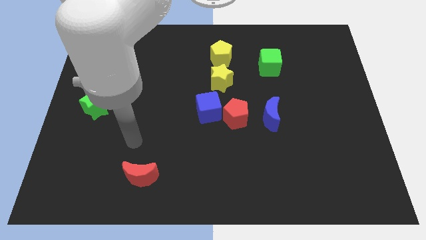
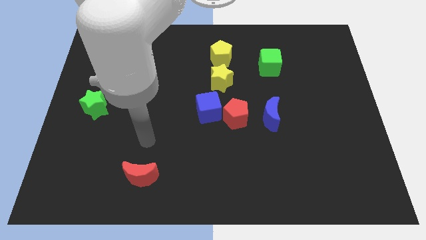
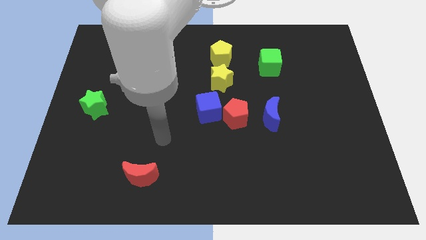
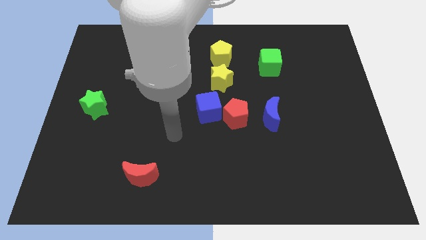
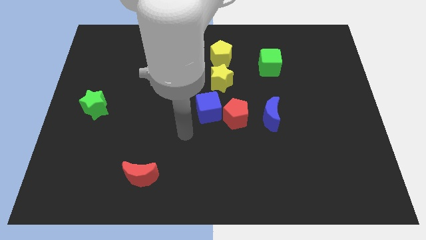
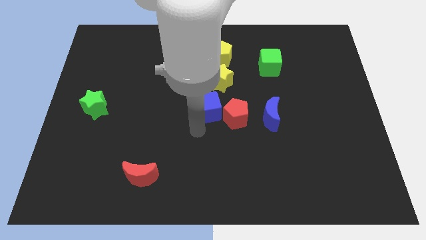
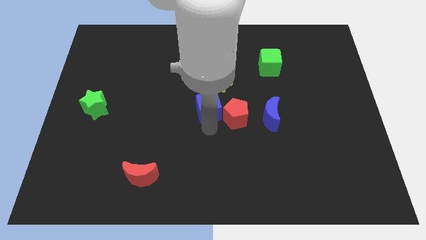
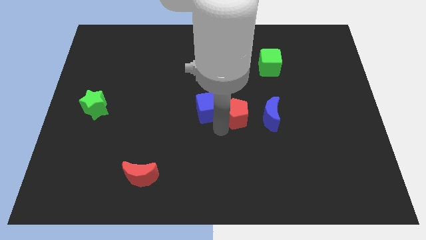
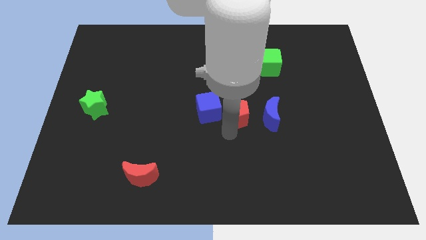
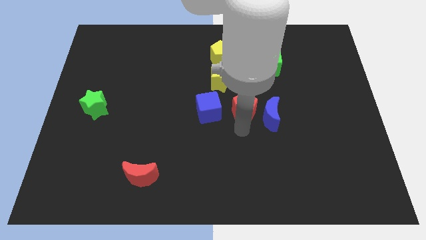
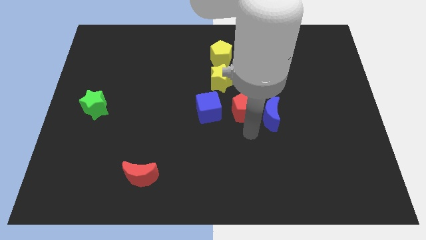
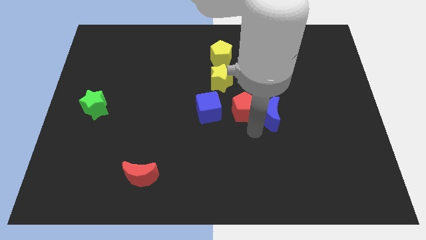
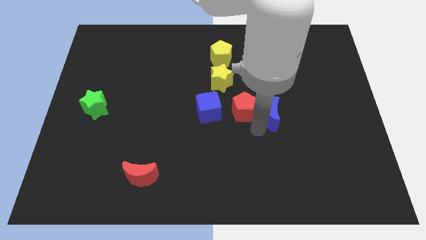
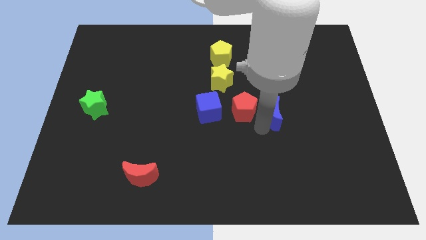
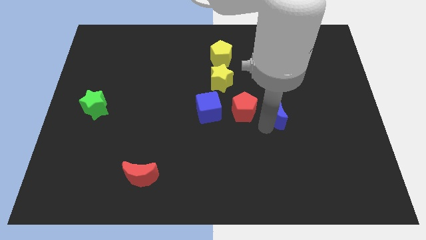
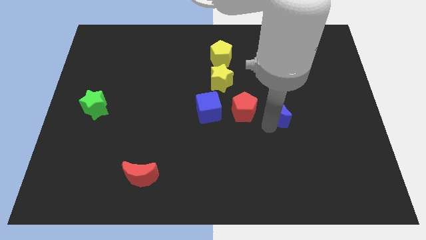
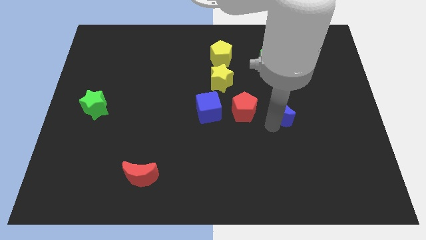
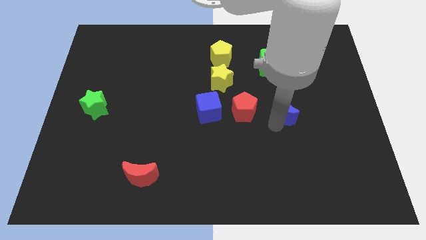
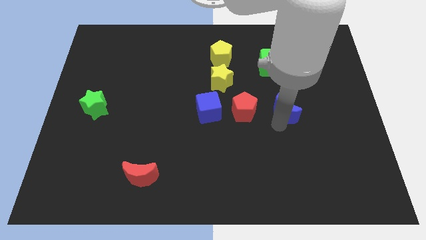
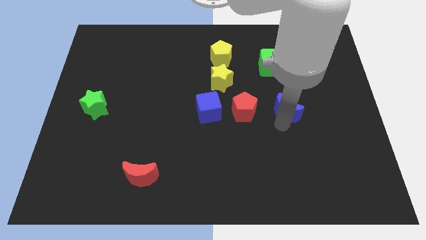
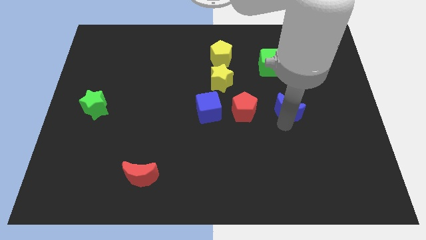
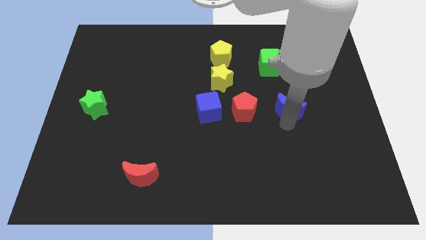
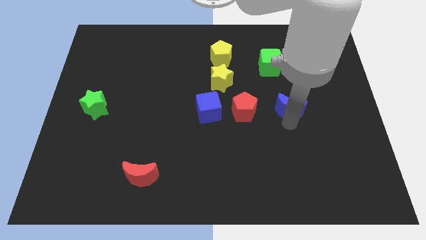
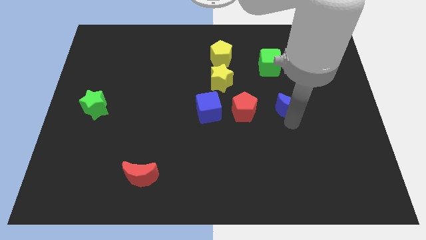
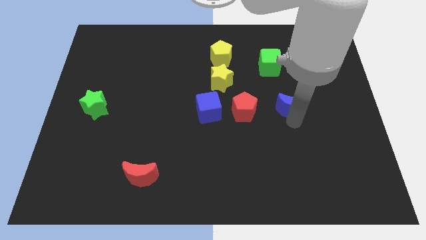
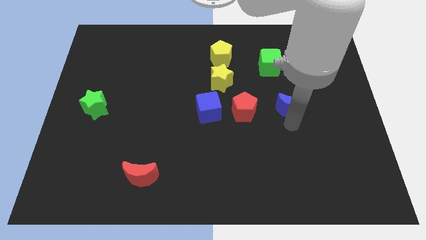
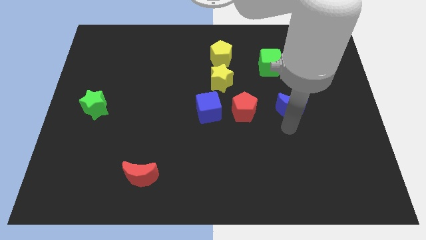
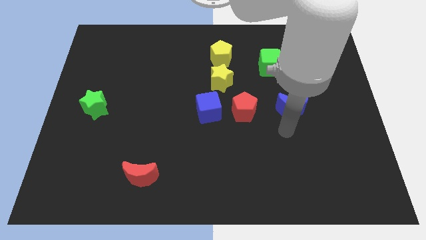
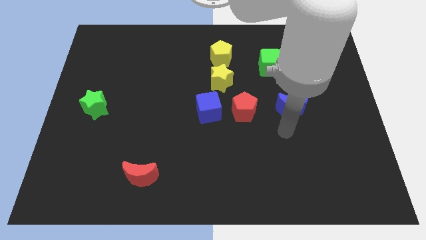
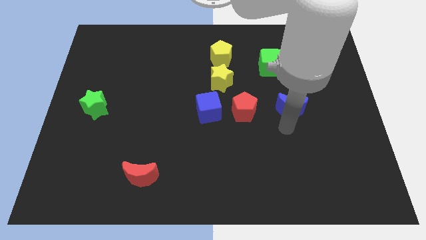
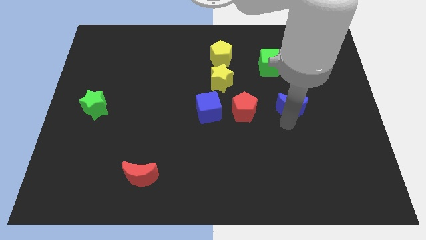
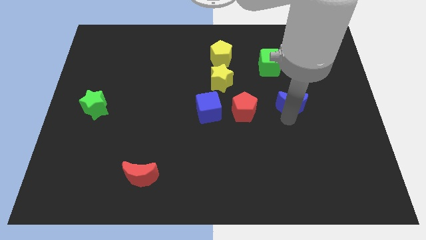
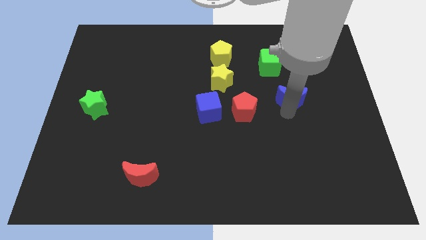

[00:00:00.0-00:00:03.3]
push the blue moon upwards and right diagonally slightly

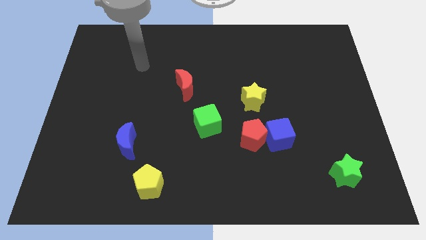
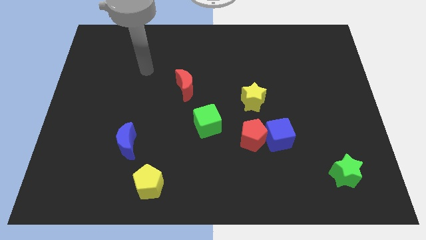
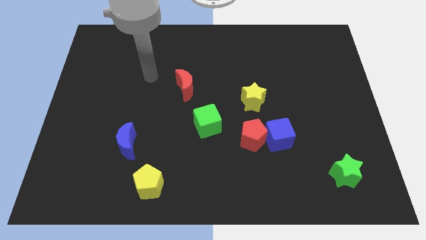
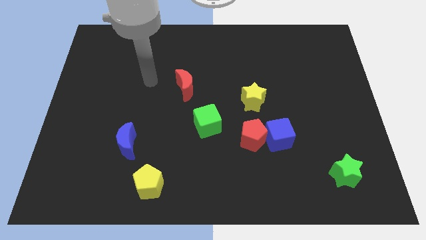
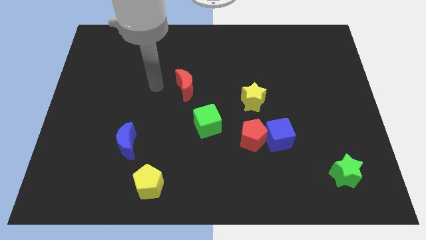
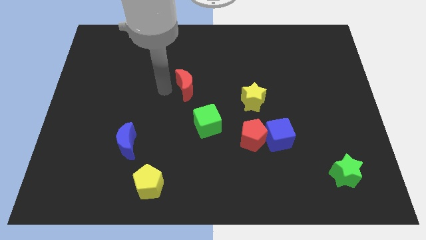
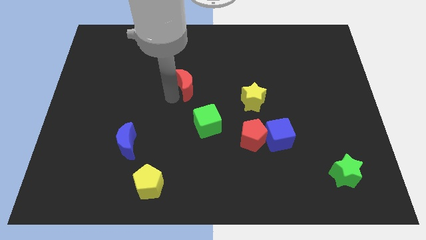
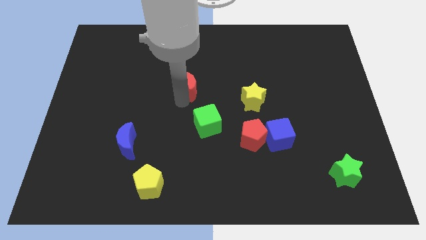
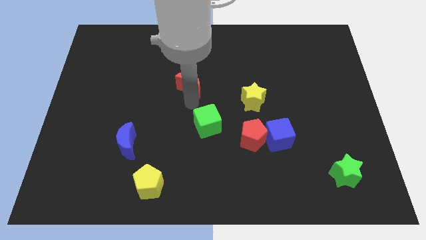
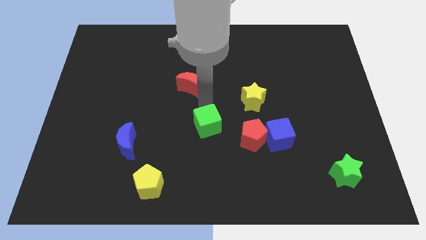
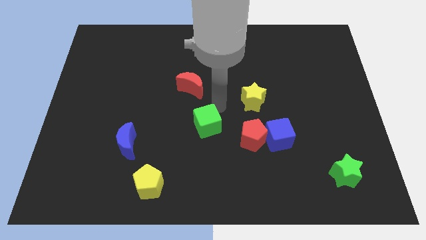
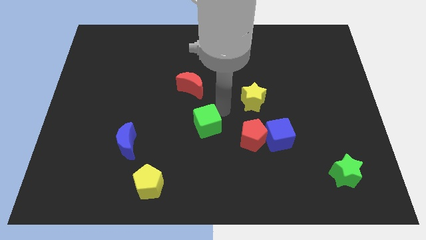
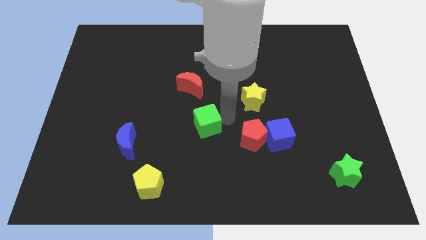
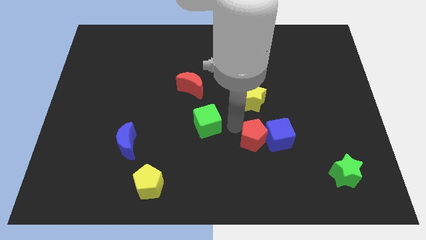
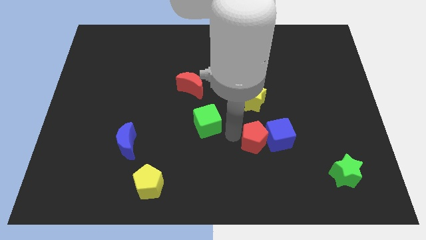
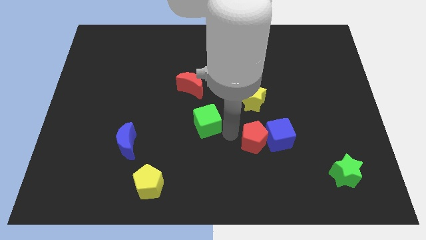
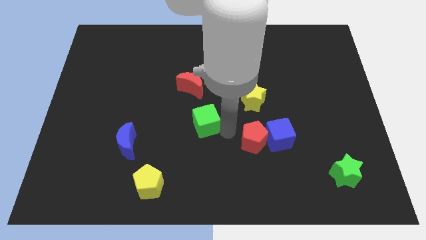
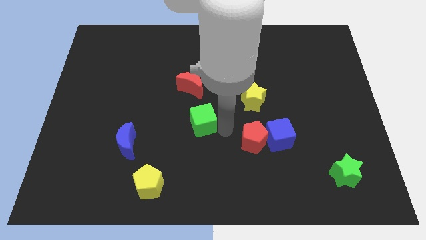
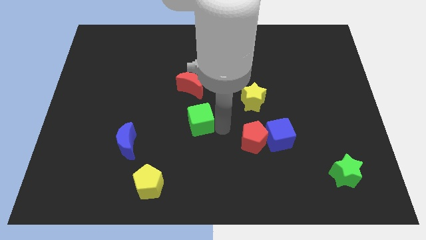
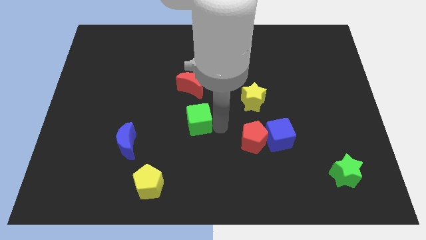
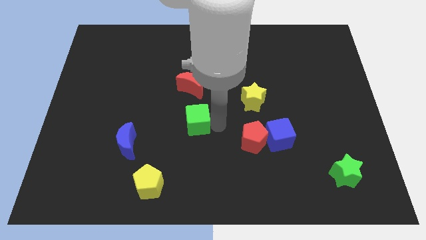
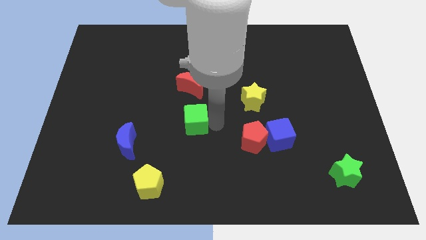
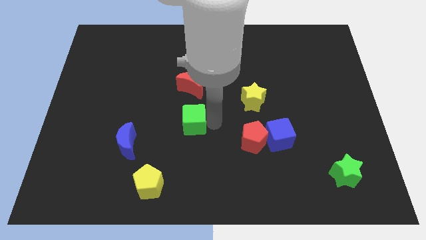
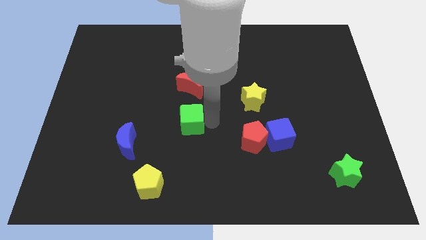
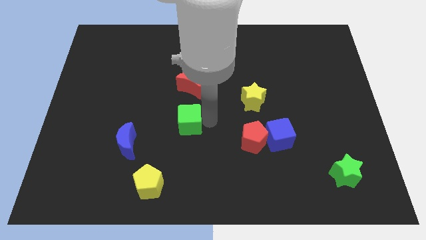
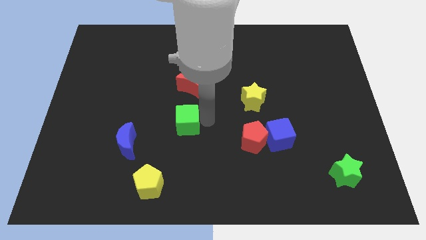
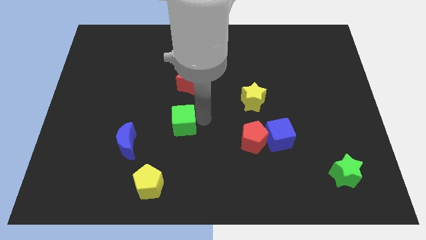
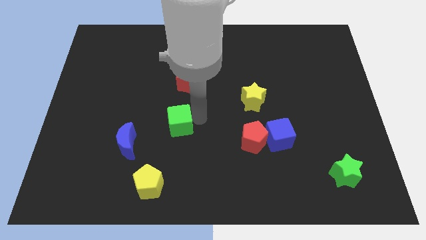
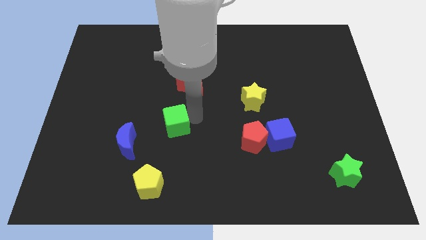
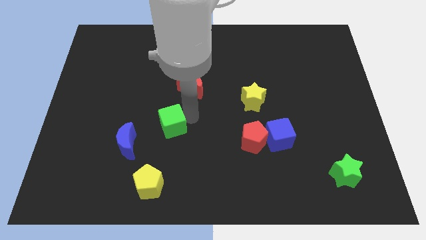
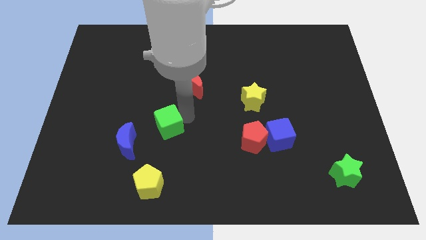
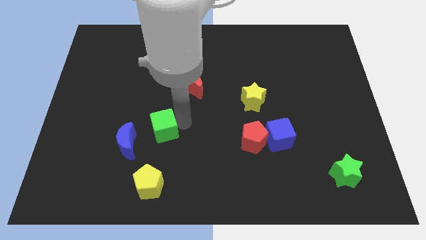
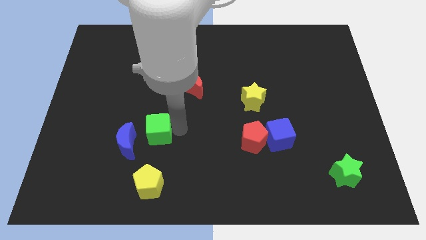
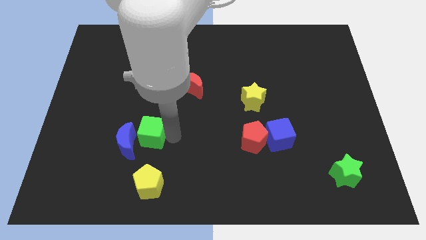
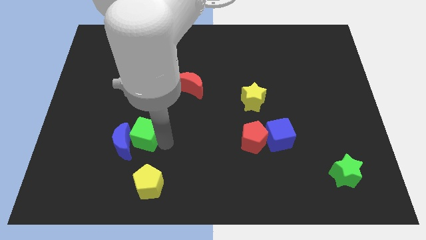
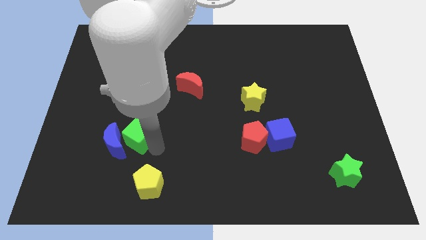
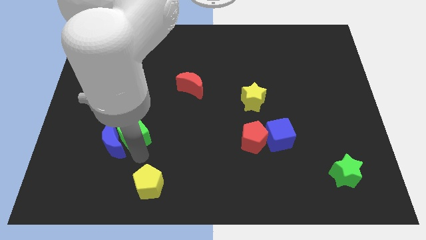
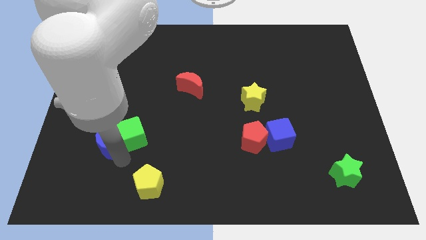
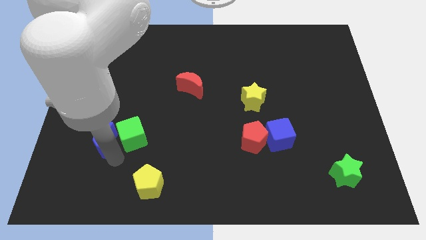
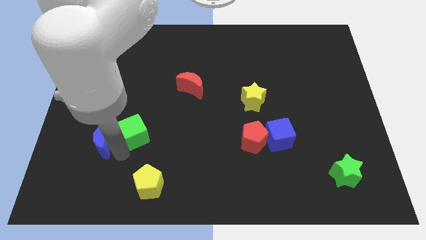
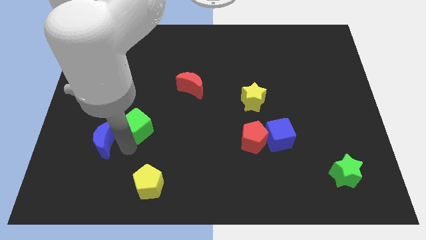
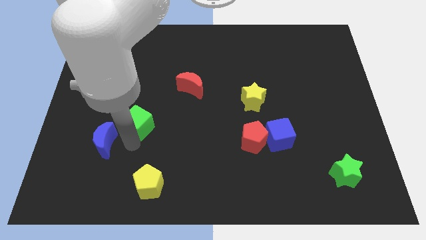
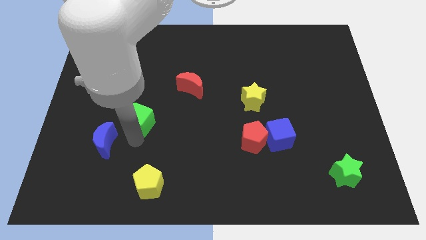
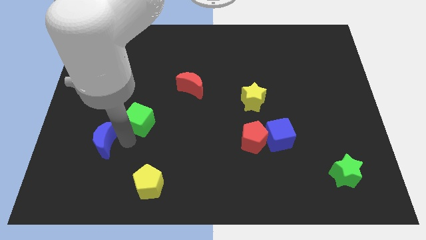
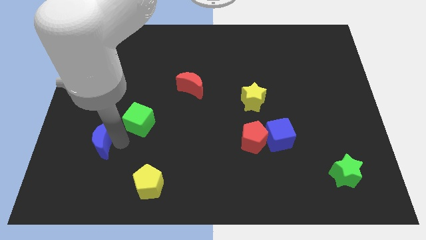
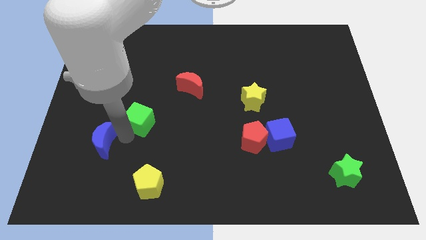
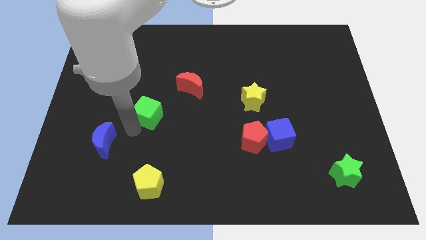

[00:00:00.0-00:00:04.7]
slightly slide the green cube up and left diagonally
